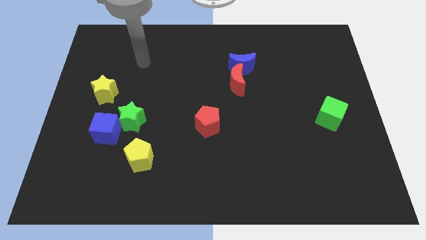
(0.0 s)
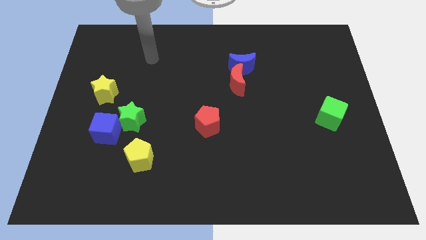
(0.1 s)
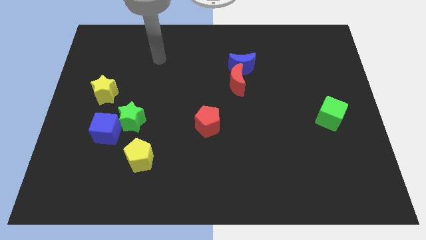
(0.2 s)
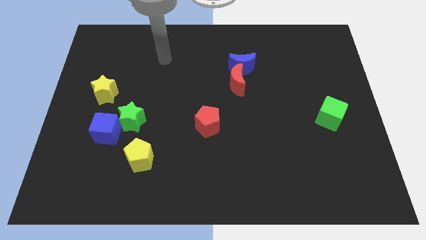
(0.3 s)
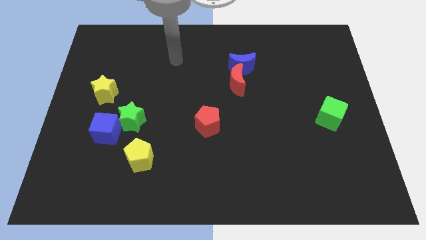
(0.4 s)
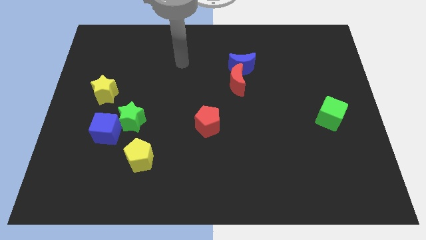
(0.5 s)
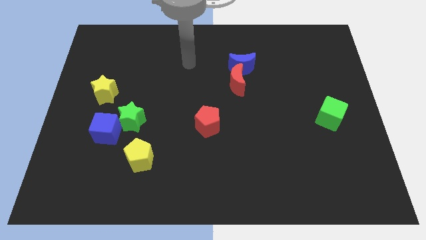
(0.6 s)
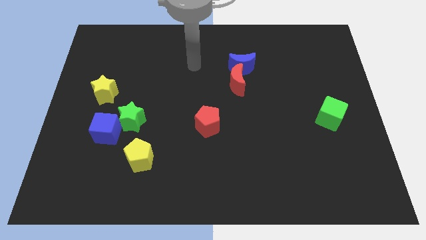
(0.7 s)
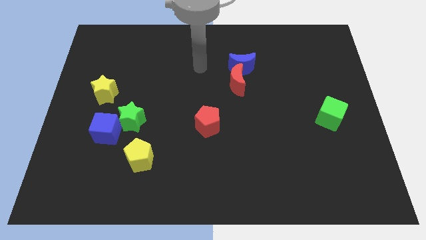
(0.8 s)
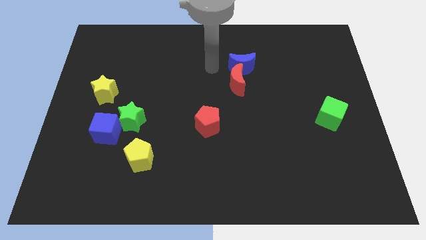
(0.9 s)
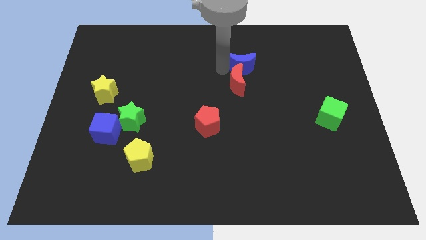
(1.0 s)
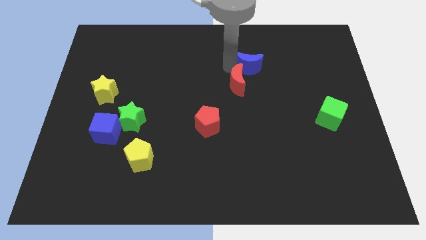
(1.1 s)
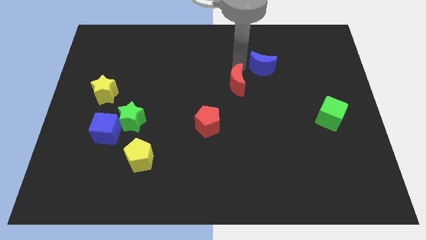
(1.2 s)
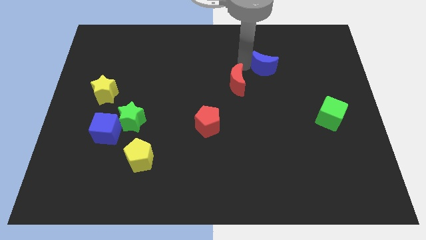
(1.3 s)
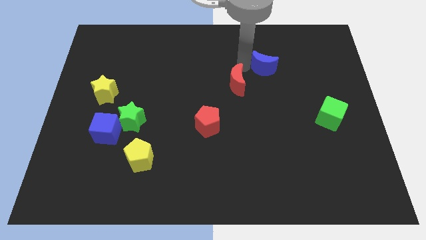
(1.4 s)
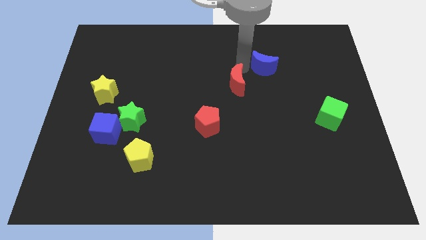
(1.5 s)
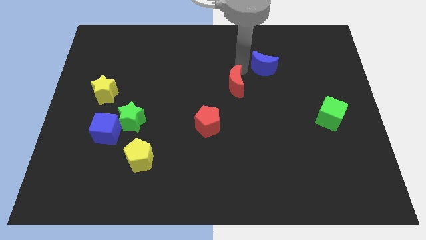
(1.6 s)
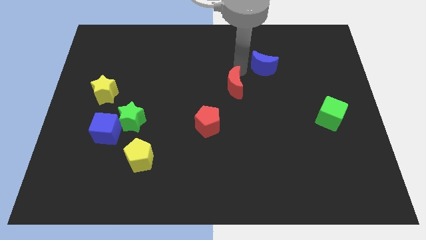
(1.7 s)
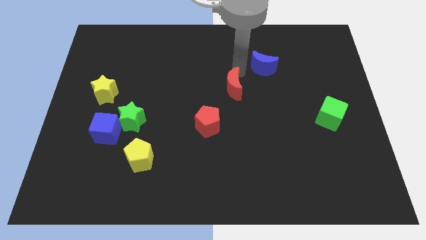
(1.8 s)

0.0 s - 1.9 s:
separate the red moon from the blue moon

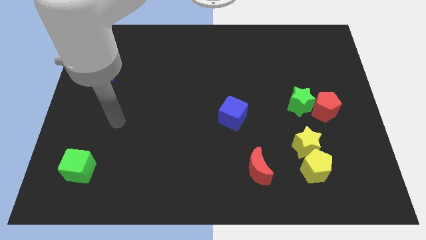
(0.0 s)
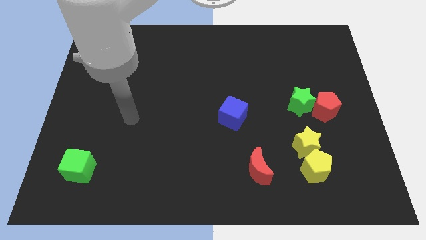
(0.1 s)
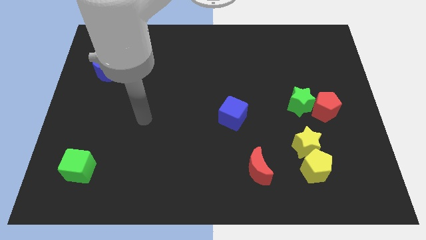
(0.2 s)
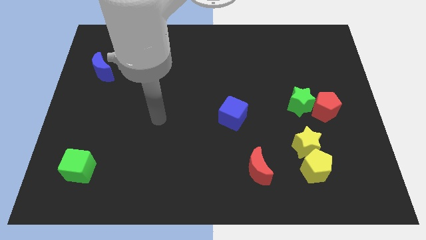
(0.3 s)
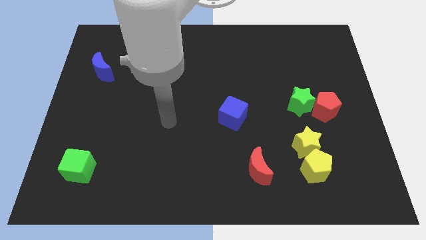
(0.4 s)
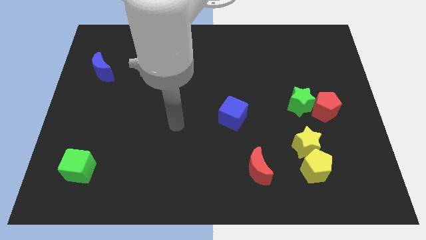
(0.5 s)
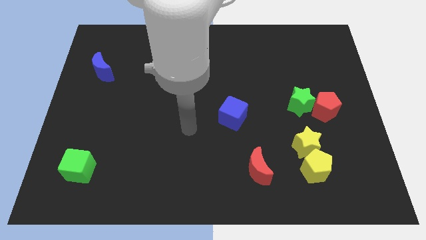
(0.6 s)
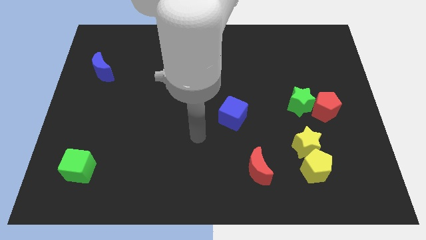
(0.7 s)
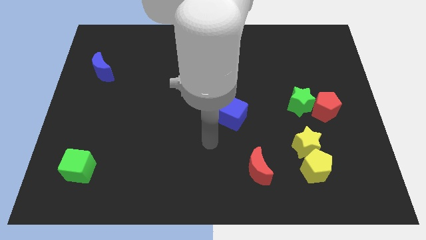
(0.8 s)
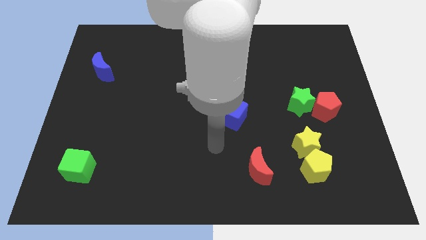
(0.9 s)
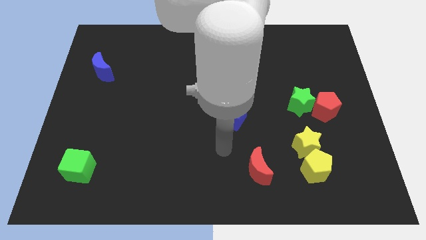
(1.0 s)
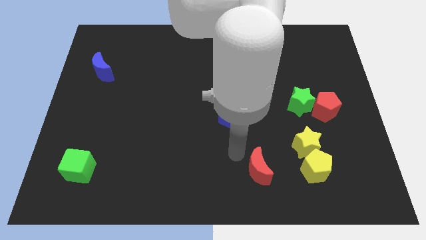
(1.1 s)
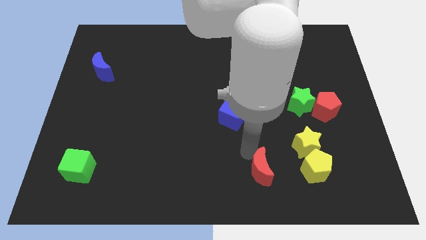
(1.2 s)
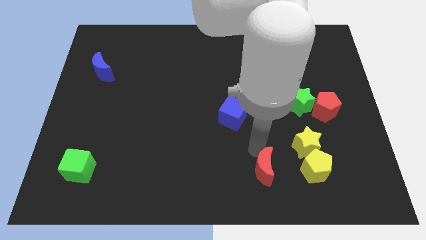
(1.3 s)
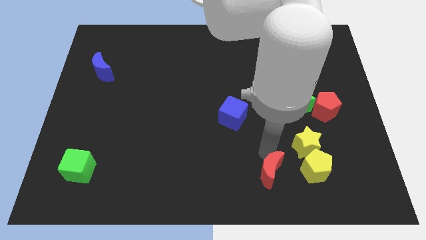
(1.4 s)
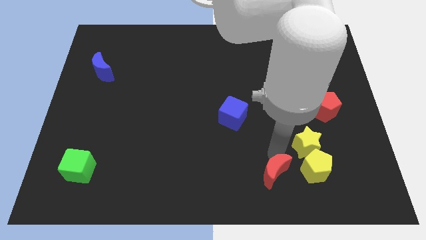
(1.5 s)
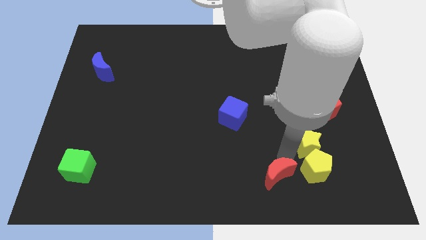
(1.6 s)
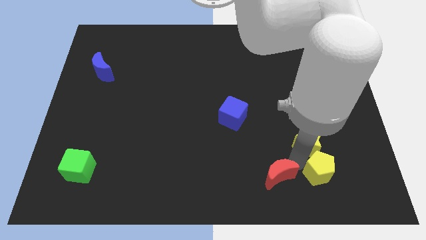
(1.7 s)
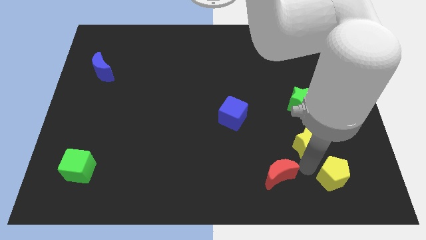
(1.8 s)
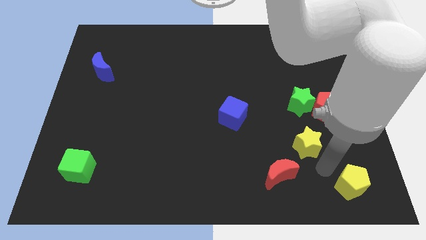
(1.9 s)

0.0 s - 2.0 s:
move the yellow star away from the yellow pentagon

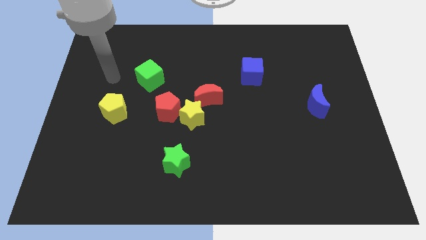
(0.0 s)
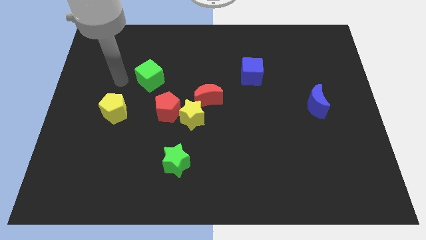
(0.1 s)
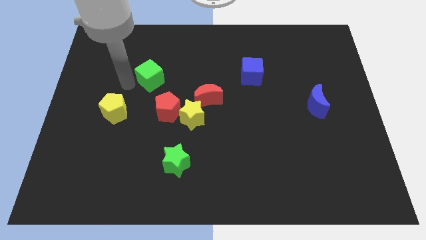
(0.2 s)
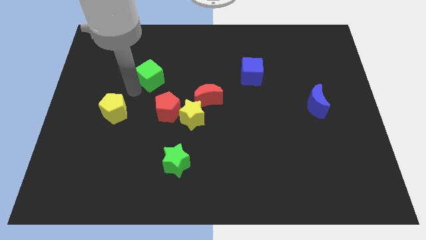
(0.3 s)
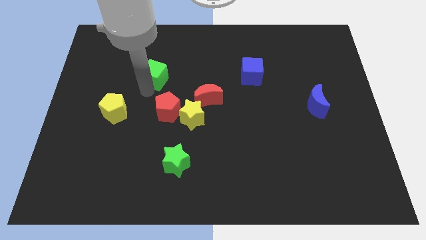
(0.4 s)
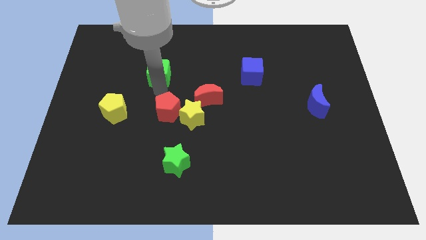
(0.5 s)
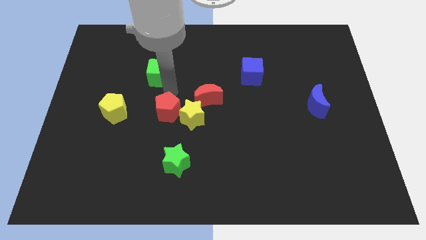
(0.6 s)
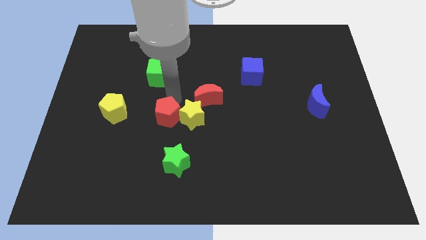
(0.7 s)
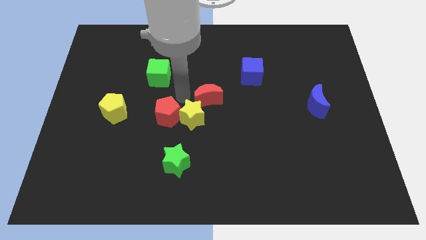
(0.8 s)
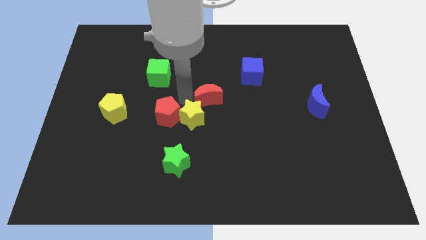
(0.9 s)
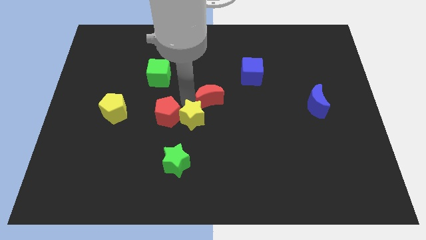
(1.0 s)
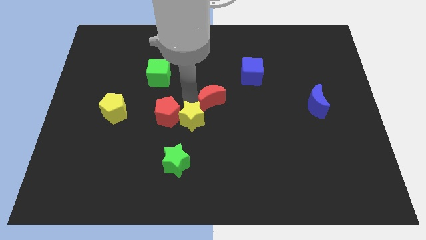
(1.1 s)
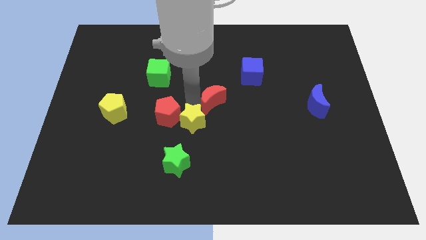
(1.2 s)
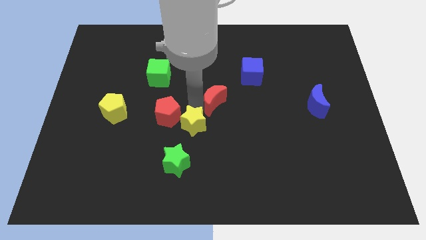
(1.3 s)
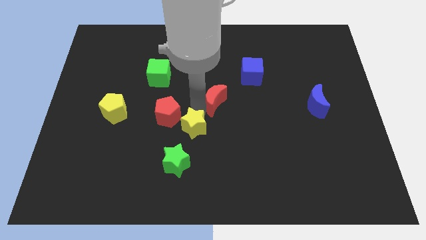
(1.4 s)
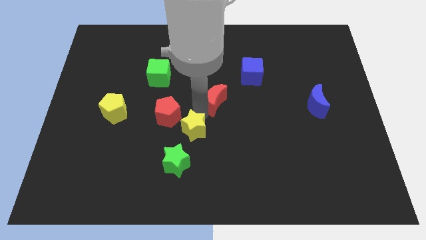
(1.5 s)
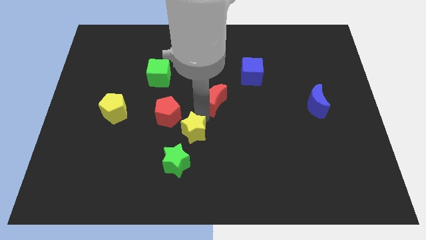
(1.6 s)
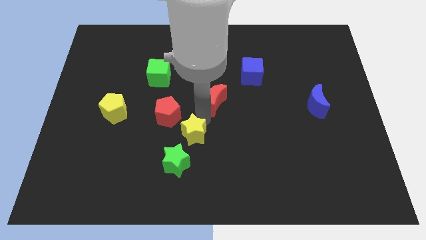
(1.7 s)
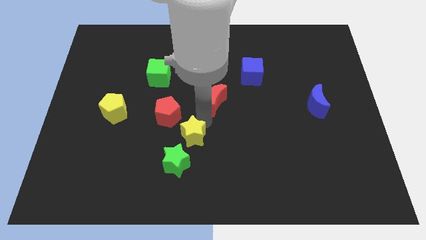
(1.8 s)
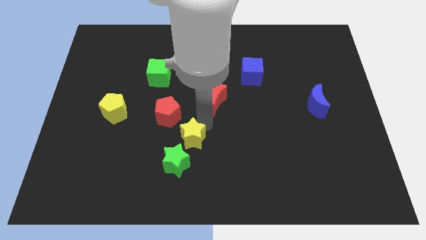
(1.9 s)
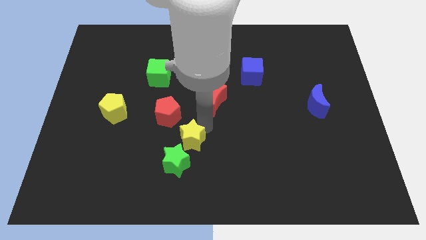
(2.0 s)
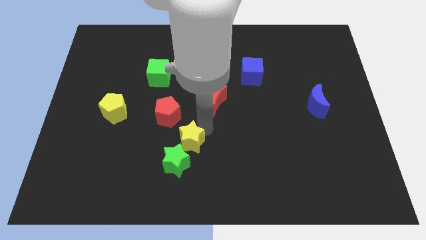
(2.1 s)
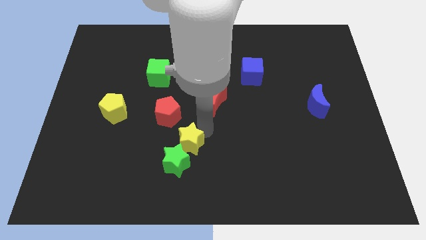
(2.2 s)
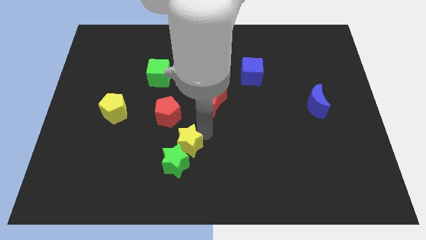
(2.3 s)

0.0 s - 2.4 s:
pull the yellow star apart from the red moon and red pentagon

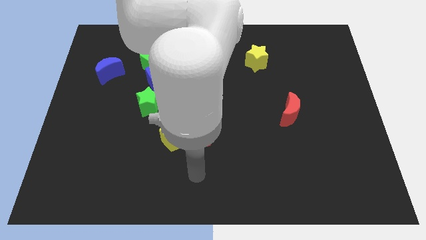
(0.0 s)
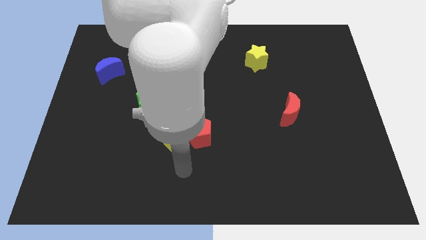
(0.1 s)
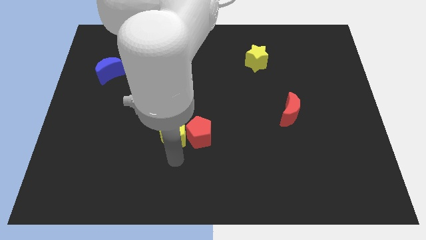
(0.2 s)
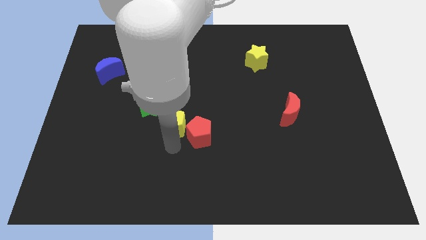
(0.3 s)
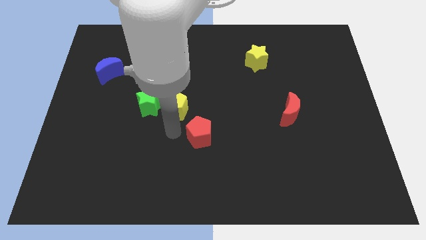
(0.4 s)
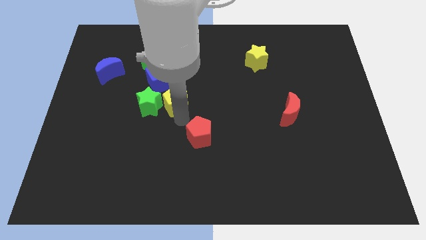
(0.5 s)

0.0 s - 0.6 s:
separate the red pentagon from the yellow pentagon

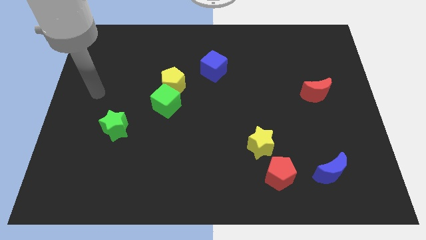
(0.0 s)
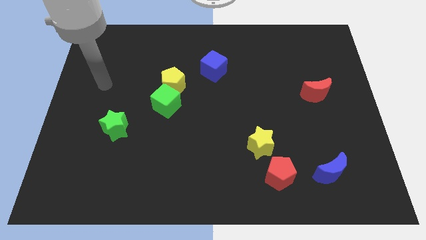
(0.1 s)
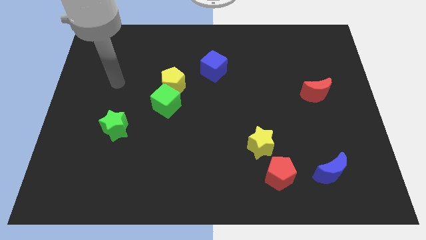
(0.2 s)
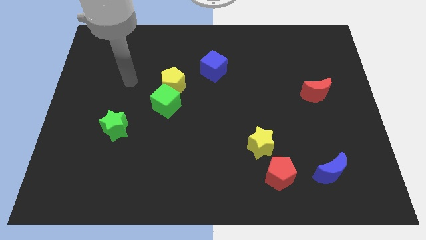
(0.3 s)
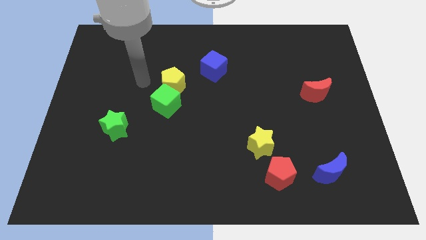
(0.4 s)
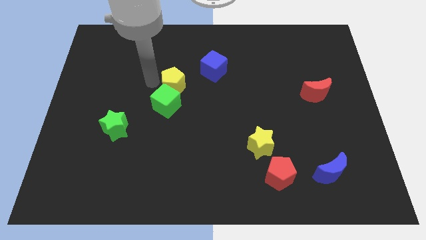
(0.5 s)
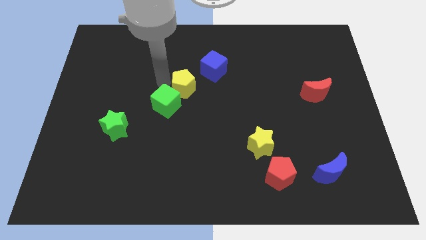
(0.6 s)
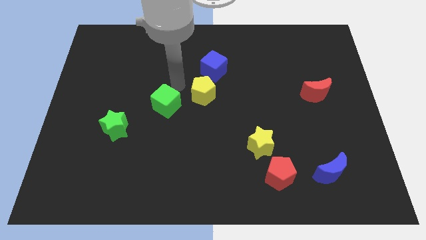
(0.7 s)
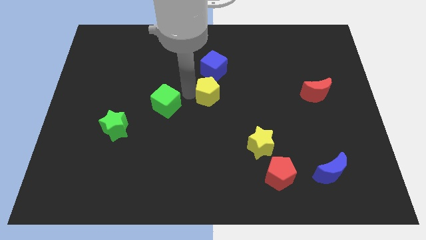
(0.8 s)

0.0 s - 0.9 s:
pull the green cube apart from the yellow pentagon

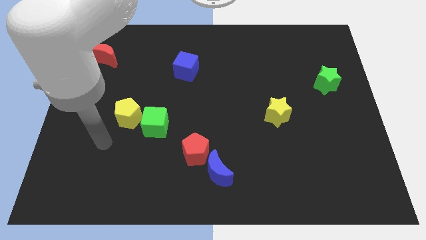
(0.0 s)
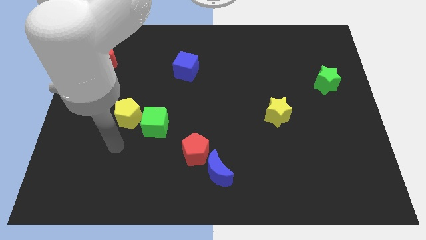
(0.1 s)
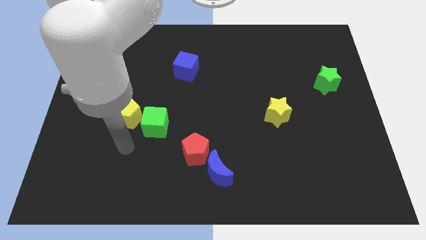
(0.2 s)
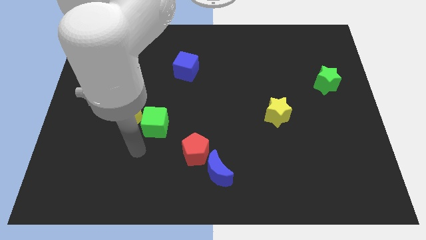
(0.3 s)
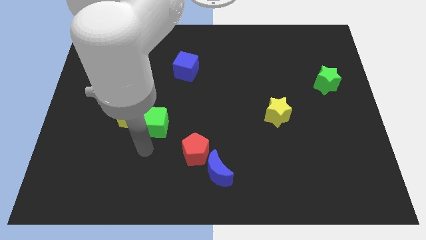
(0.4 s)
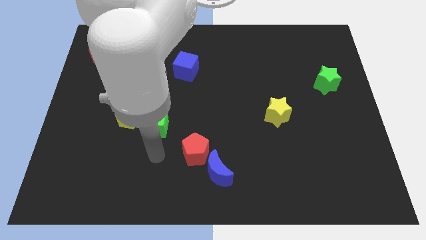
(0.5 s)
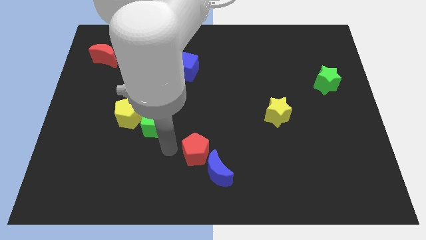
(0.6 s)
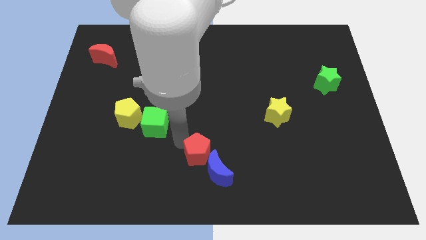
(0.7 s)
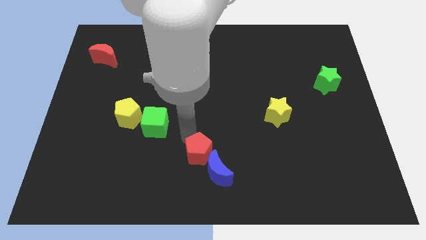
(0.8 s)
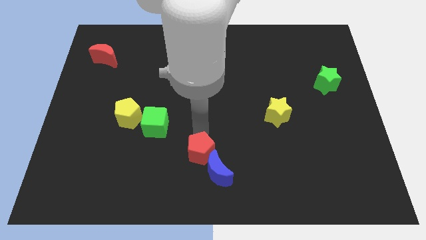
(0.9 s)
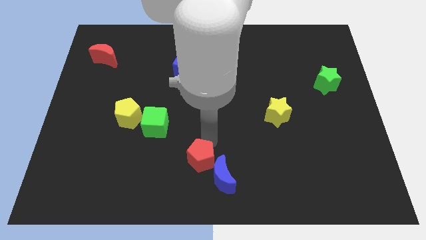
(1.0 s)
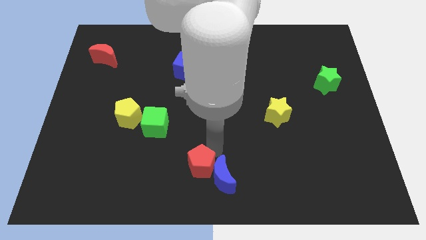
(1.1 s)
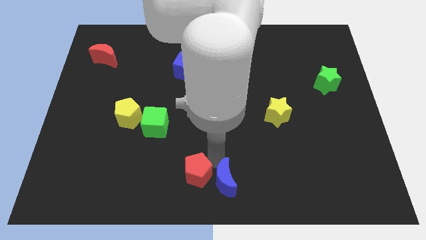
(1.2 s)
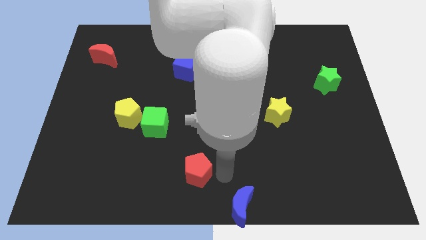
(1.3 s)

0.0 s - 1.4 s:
pull the red pentagon apart from the blue moon

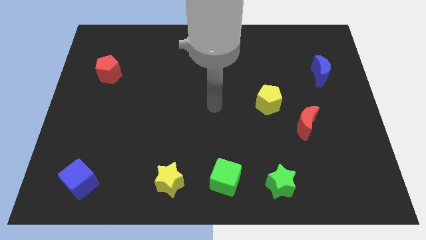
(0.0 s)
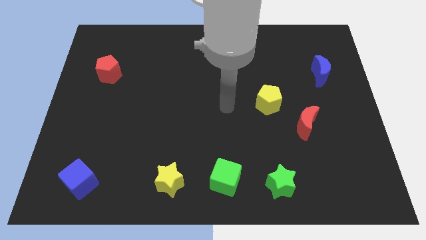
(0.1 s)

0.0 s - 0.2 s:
separate the red moon from the yellow pentagon
